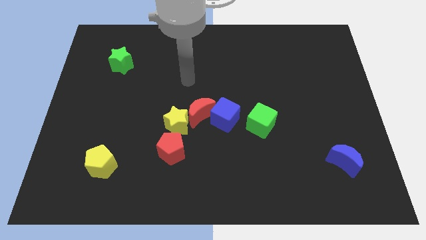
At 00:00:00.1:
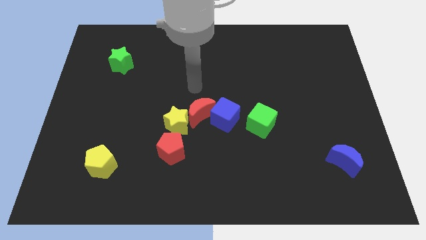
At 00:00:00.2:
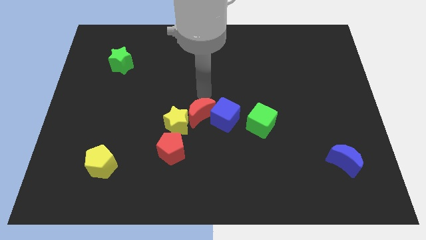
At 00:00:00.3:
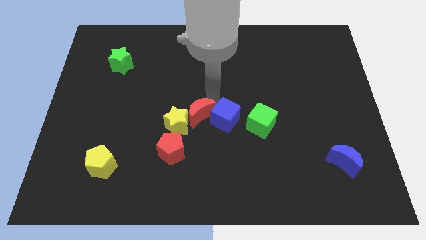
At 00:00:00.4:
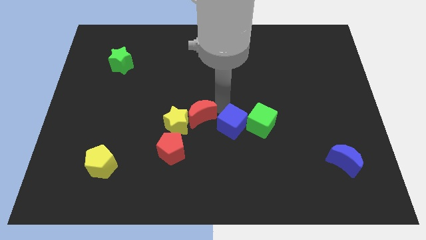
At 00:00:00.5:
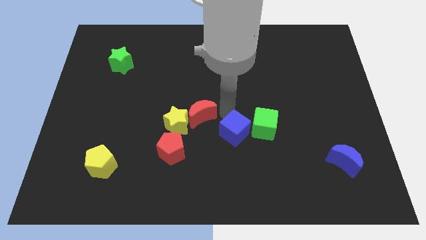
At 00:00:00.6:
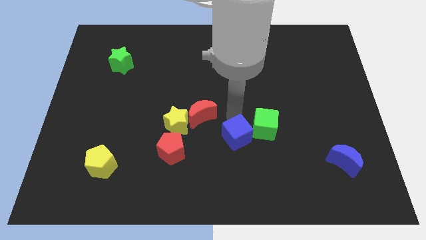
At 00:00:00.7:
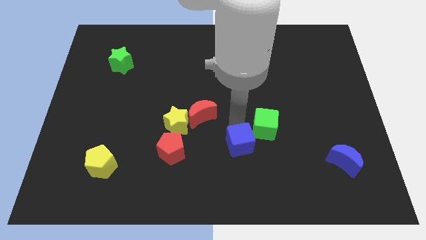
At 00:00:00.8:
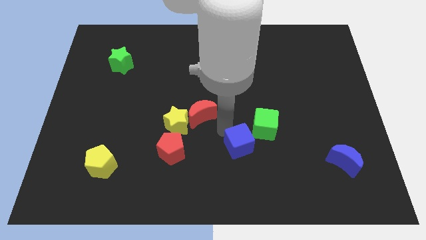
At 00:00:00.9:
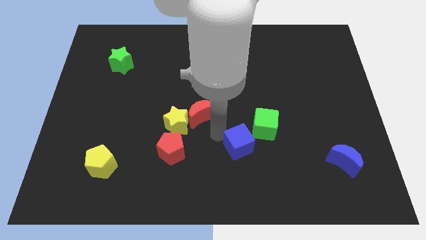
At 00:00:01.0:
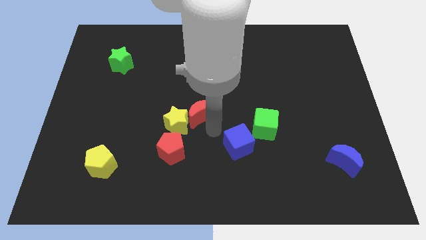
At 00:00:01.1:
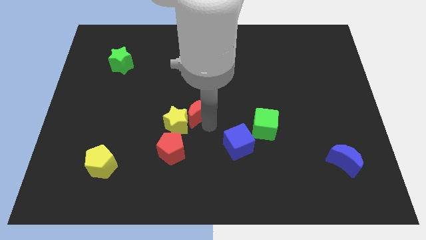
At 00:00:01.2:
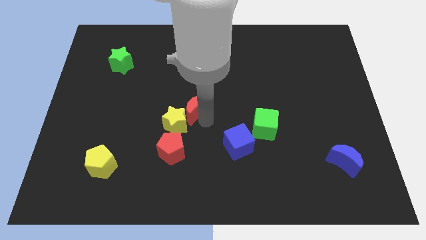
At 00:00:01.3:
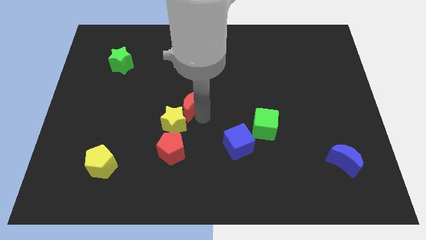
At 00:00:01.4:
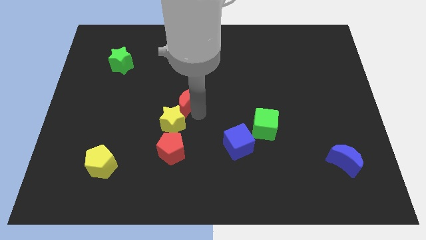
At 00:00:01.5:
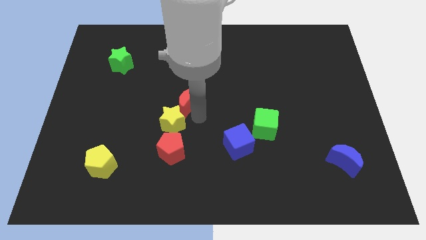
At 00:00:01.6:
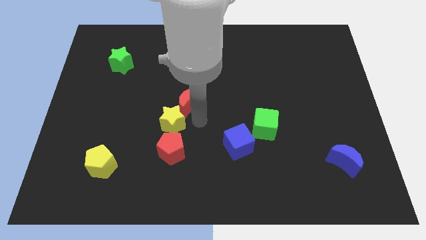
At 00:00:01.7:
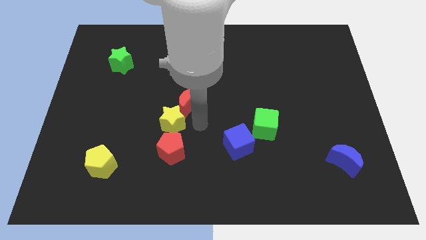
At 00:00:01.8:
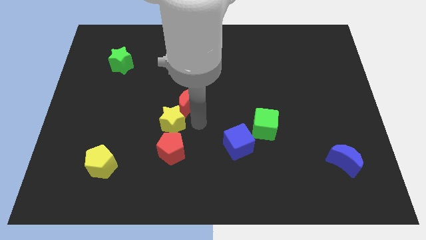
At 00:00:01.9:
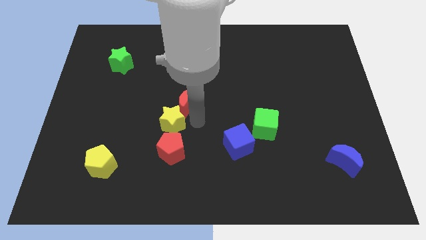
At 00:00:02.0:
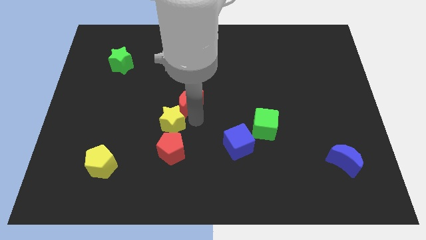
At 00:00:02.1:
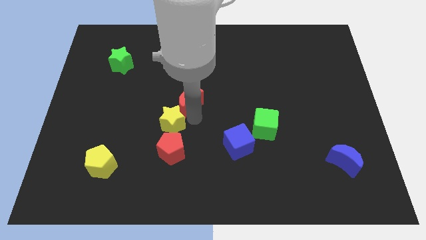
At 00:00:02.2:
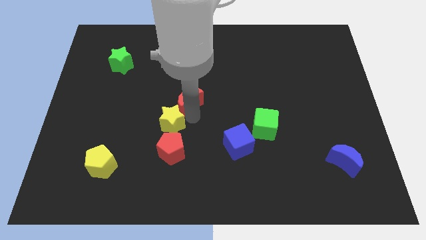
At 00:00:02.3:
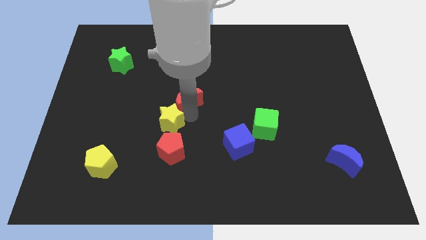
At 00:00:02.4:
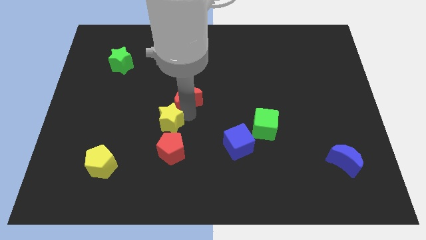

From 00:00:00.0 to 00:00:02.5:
pull the red moon apart from the blue cube and yellow star

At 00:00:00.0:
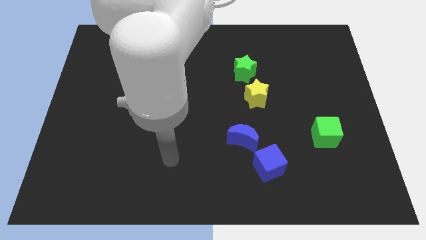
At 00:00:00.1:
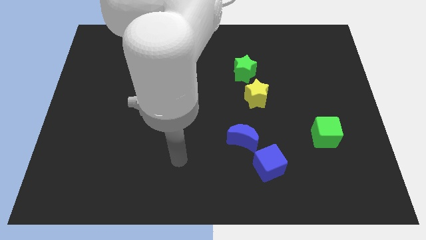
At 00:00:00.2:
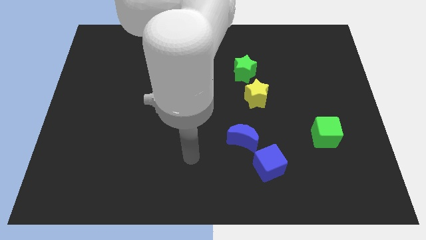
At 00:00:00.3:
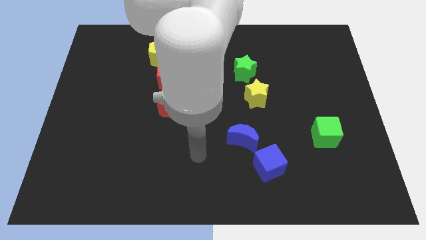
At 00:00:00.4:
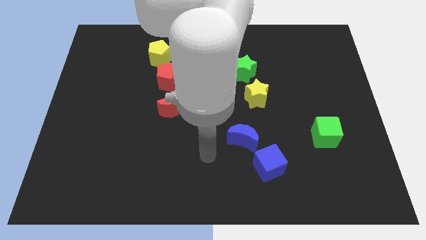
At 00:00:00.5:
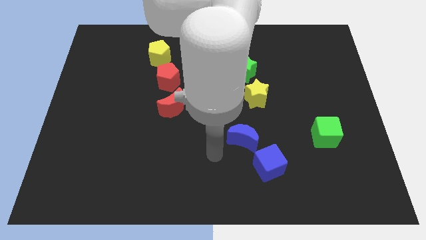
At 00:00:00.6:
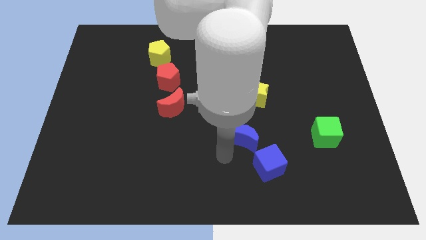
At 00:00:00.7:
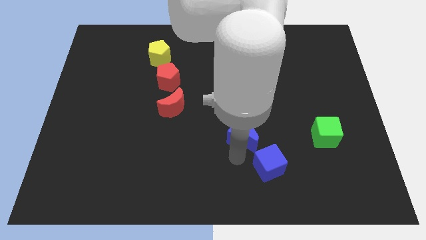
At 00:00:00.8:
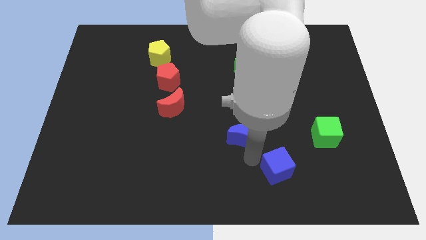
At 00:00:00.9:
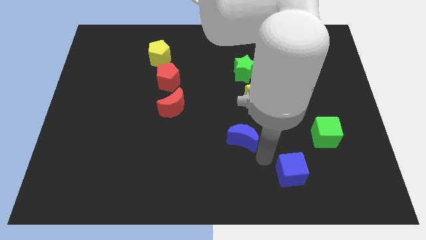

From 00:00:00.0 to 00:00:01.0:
move the blue moon away from the blue cube

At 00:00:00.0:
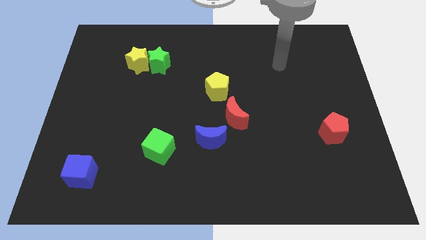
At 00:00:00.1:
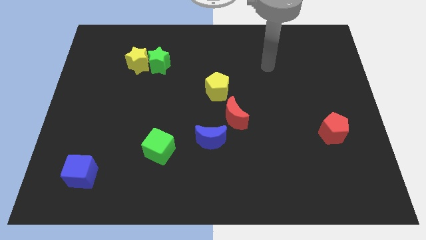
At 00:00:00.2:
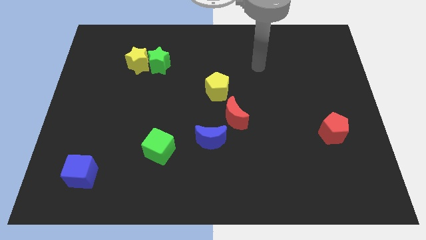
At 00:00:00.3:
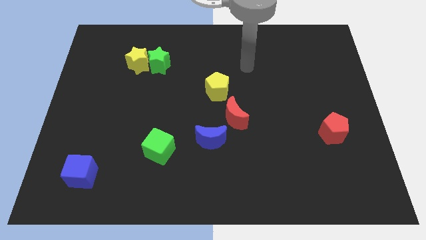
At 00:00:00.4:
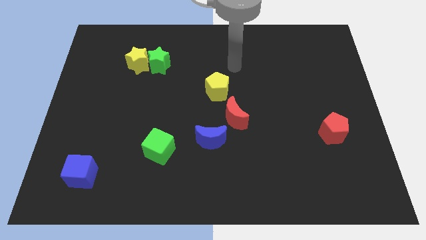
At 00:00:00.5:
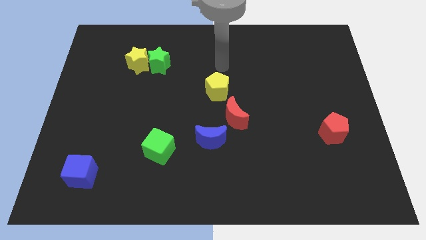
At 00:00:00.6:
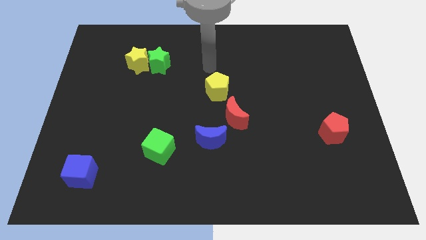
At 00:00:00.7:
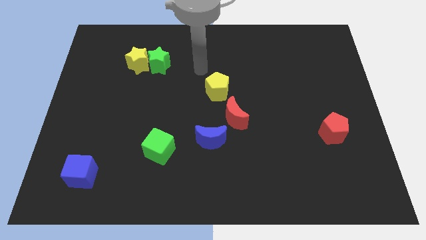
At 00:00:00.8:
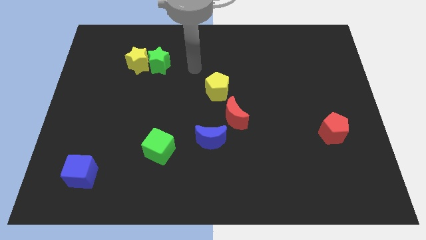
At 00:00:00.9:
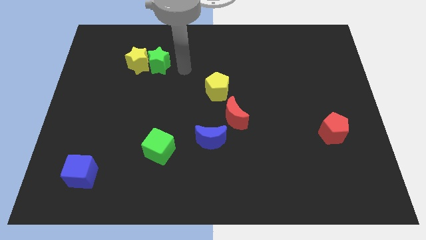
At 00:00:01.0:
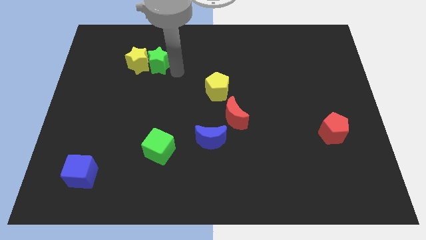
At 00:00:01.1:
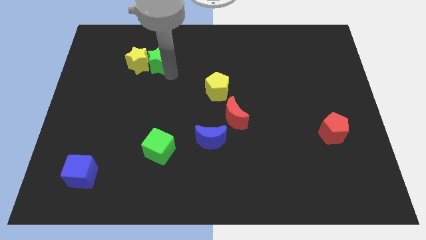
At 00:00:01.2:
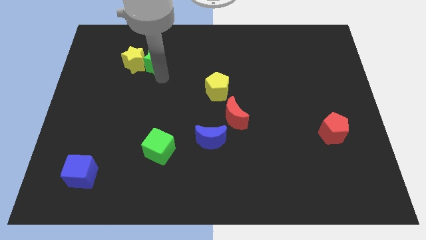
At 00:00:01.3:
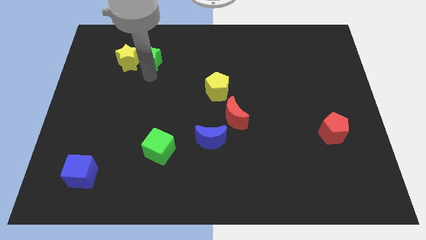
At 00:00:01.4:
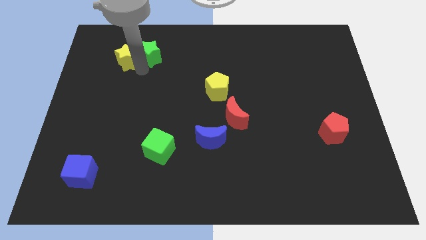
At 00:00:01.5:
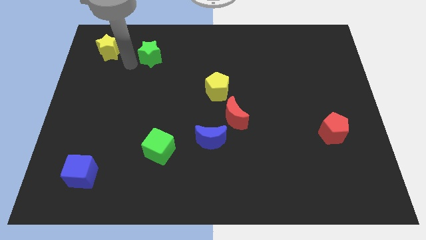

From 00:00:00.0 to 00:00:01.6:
pull the green star apart from the yellow star

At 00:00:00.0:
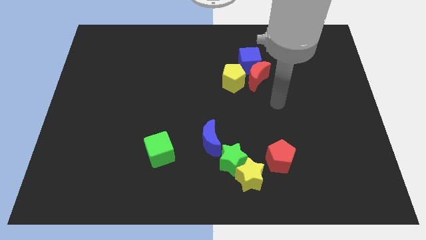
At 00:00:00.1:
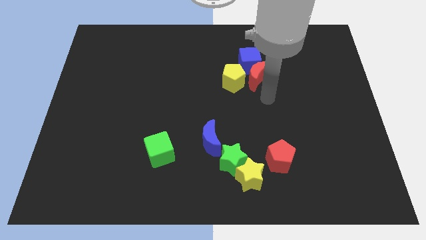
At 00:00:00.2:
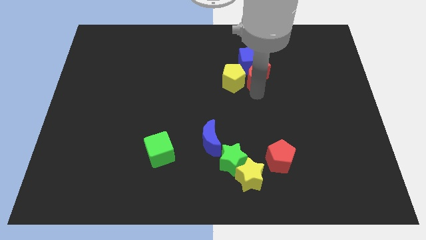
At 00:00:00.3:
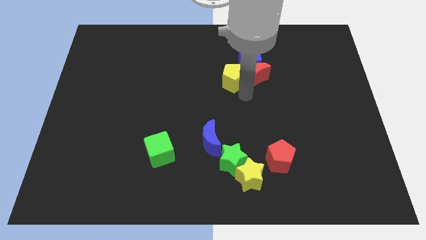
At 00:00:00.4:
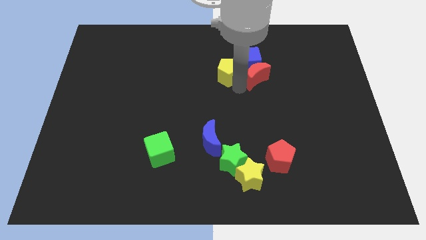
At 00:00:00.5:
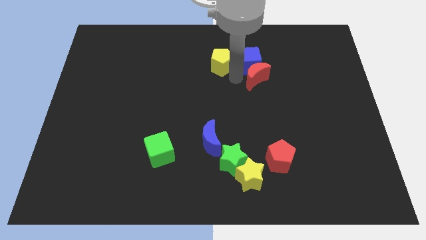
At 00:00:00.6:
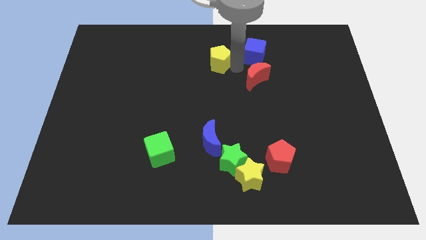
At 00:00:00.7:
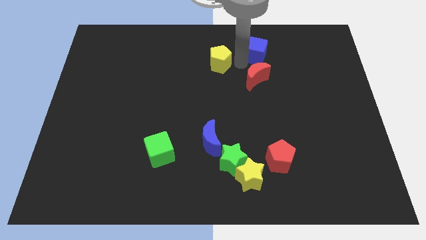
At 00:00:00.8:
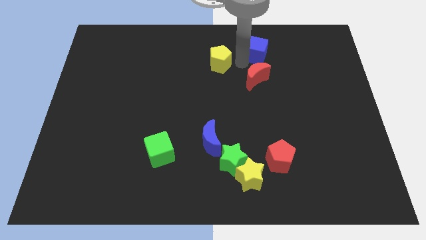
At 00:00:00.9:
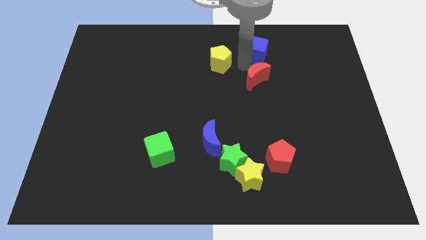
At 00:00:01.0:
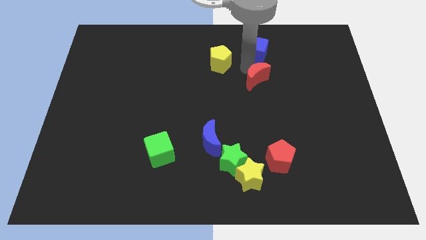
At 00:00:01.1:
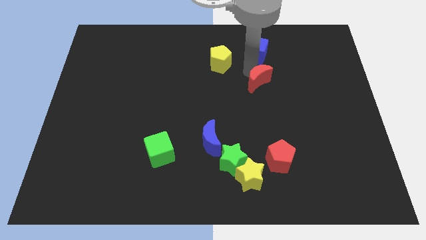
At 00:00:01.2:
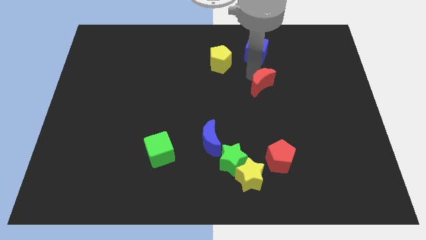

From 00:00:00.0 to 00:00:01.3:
move the red moon away from the blue cube and yellow pentagon

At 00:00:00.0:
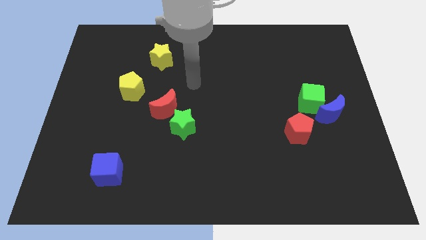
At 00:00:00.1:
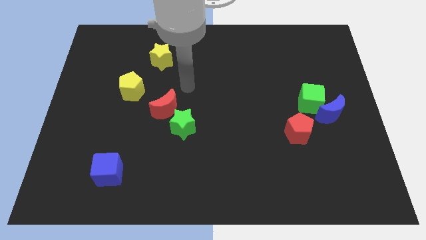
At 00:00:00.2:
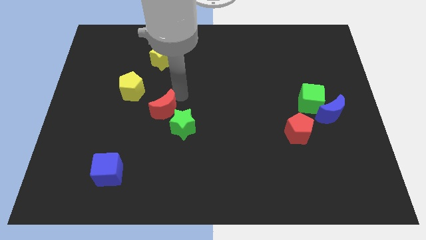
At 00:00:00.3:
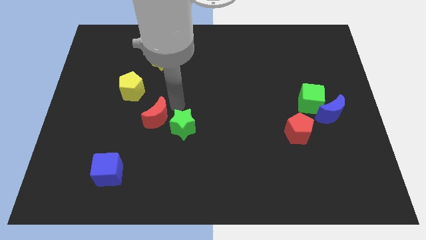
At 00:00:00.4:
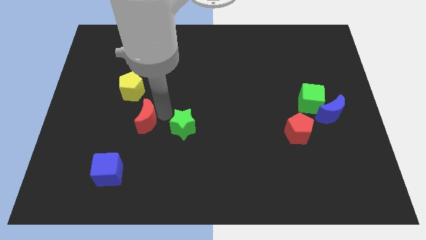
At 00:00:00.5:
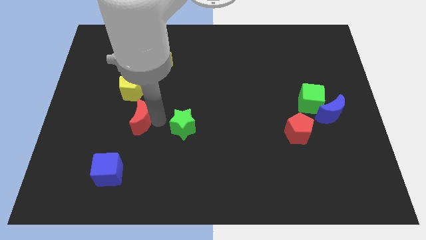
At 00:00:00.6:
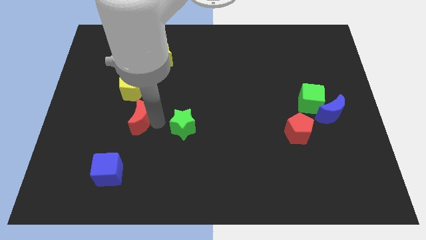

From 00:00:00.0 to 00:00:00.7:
separate the green star from the red moon

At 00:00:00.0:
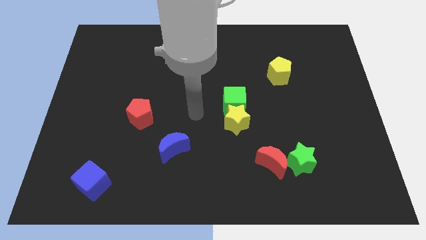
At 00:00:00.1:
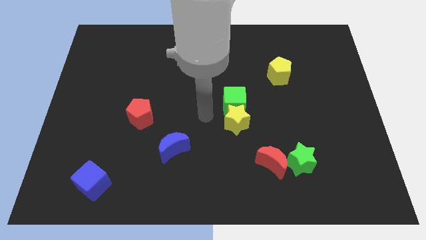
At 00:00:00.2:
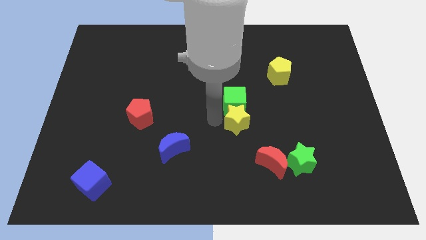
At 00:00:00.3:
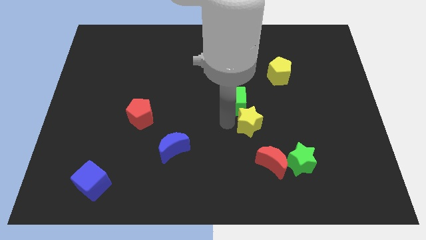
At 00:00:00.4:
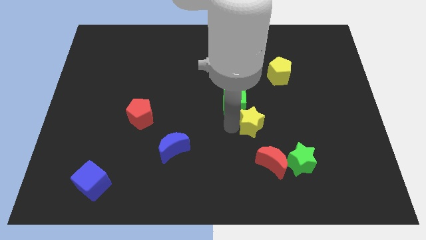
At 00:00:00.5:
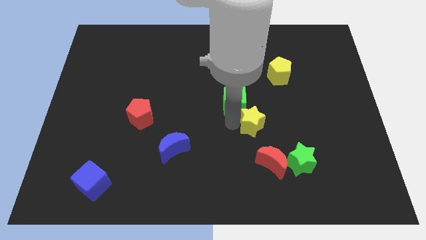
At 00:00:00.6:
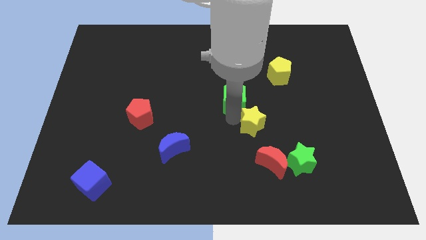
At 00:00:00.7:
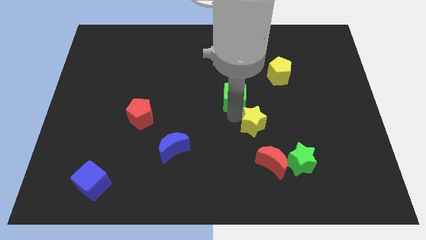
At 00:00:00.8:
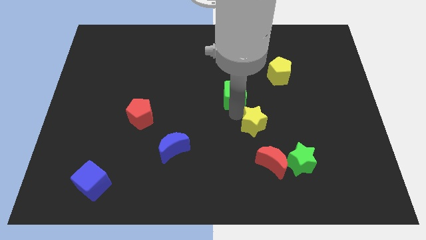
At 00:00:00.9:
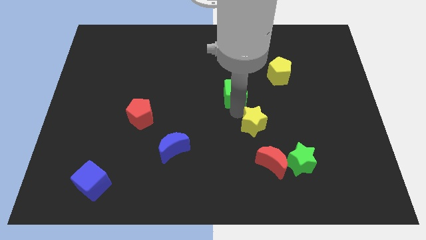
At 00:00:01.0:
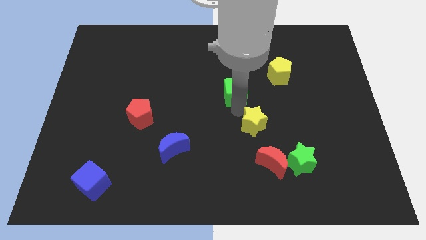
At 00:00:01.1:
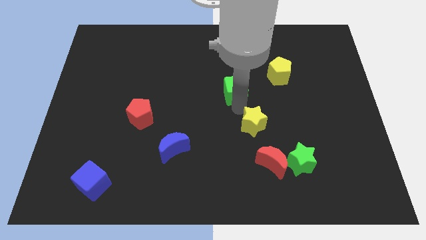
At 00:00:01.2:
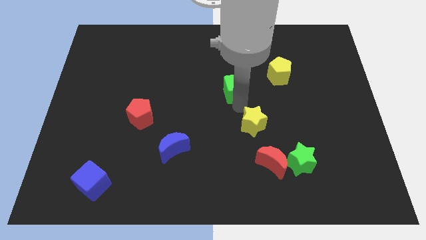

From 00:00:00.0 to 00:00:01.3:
move the green cube away from the yellow star

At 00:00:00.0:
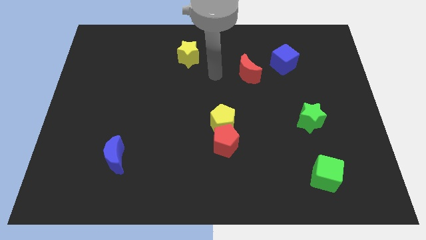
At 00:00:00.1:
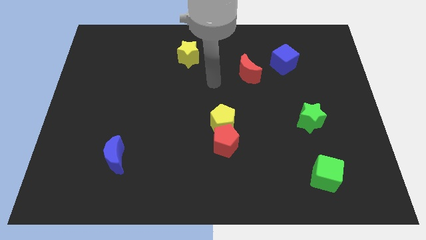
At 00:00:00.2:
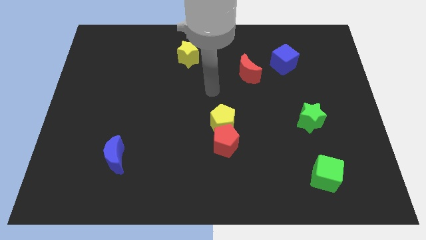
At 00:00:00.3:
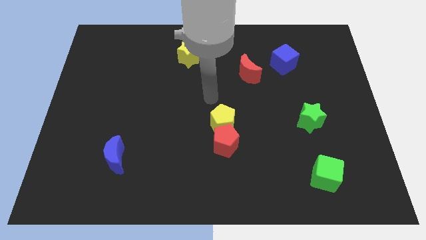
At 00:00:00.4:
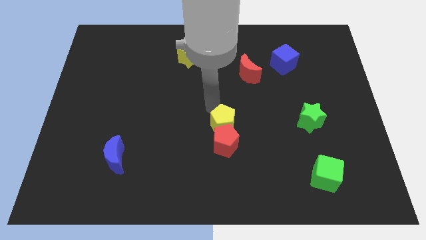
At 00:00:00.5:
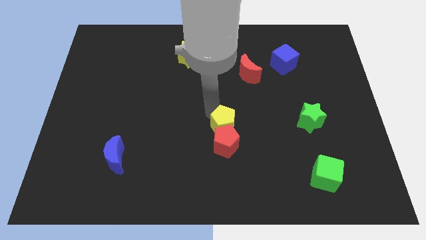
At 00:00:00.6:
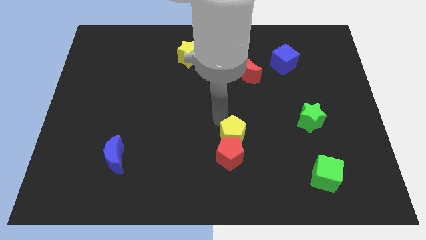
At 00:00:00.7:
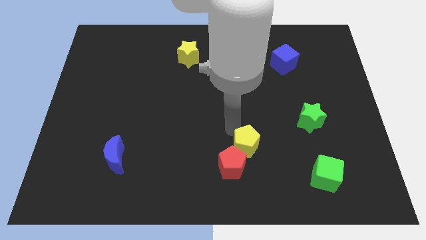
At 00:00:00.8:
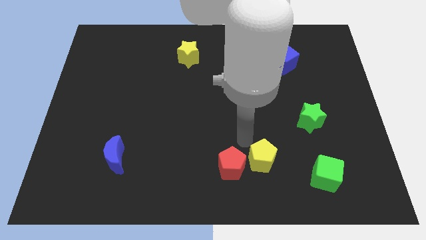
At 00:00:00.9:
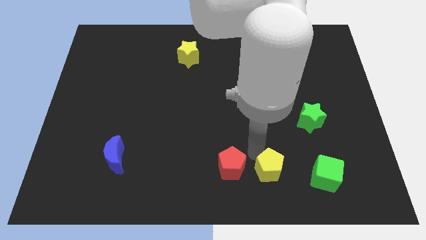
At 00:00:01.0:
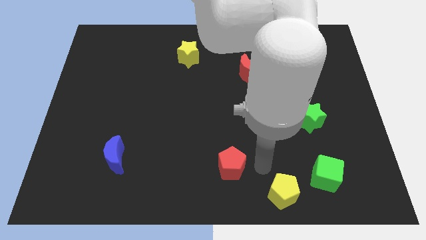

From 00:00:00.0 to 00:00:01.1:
move the red pentagon away from the yellow pentagon
